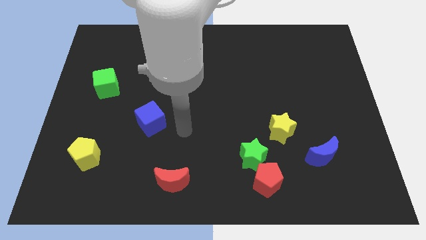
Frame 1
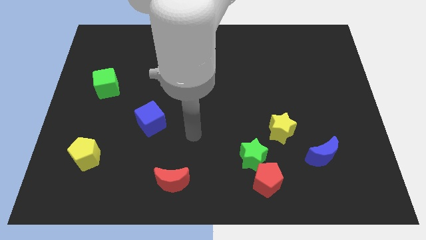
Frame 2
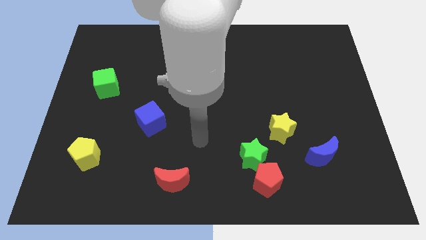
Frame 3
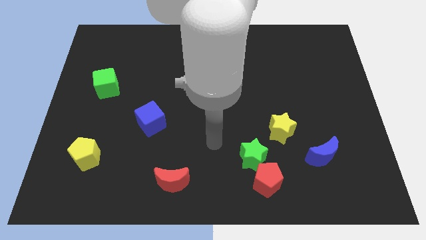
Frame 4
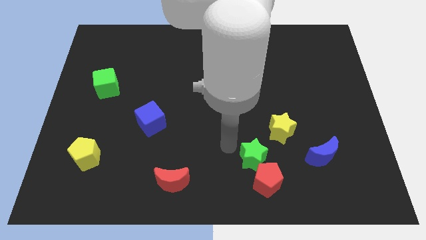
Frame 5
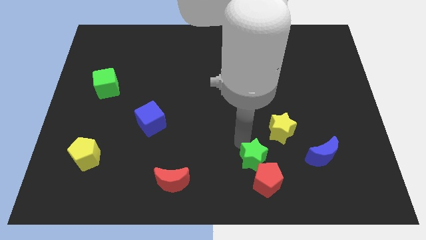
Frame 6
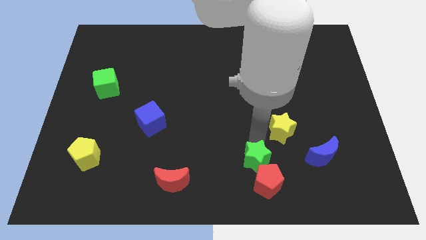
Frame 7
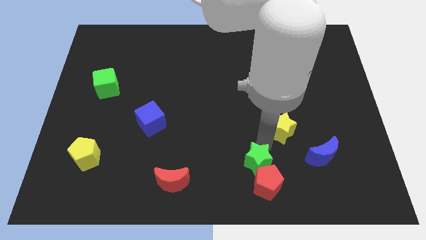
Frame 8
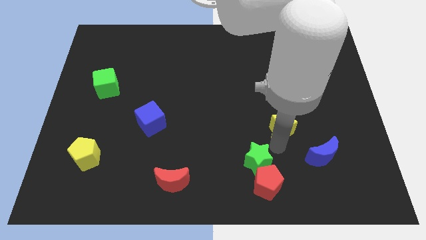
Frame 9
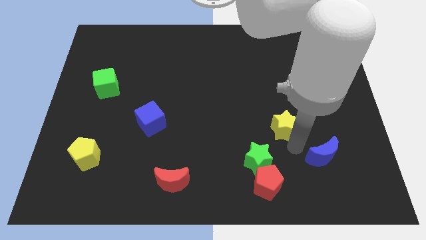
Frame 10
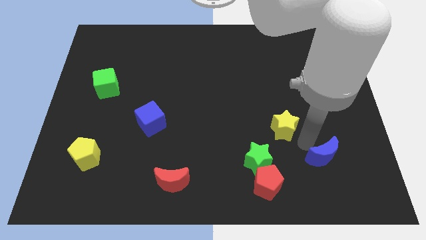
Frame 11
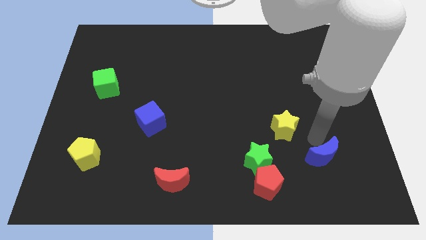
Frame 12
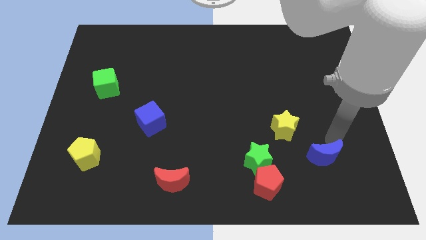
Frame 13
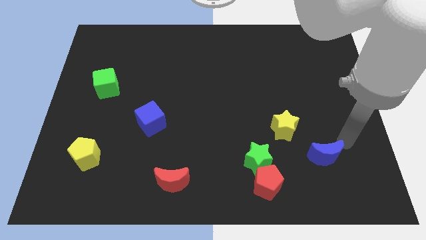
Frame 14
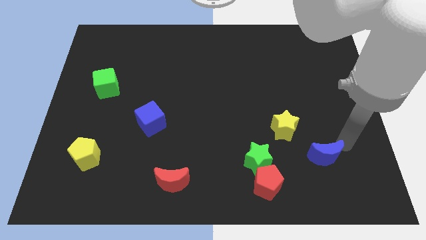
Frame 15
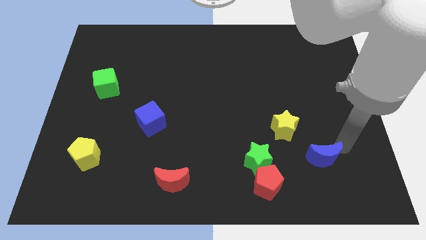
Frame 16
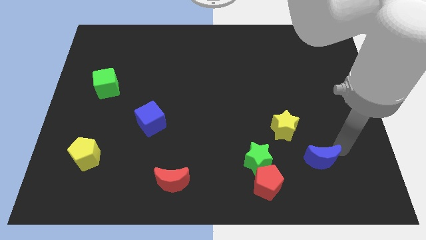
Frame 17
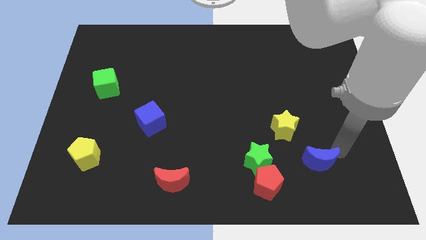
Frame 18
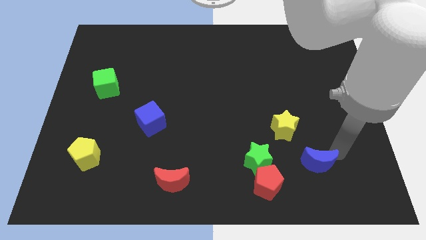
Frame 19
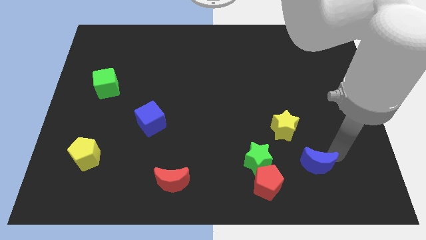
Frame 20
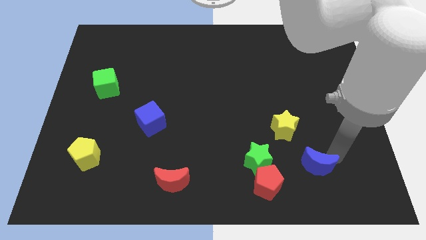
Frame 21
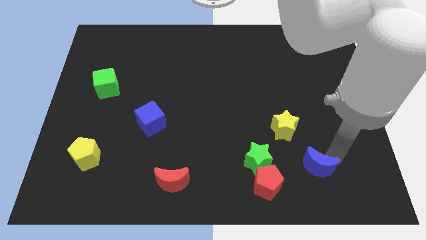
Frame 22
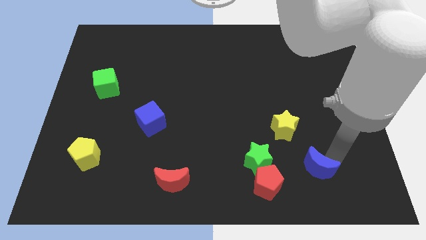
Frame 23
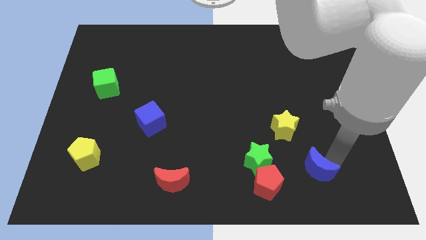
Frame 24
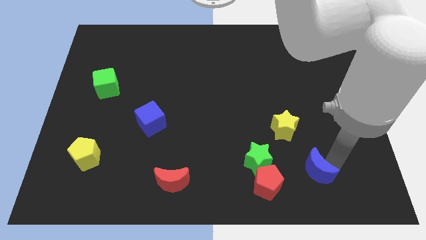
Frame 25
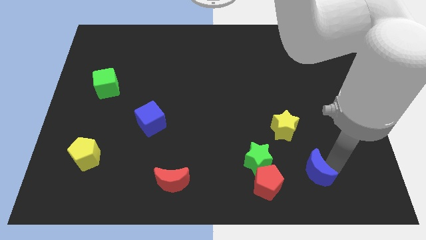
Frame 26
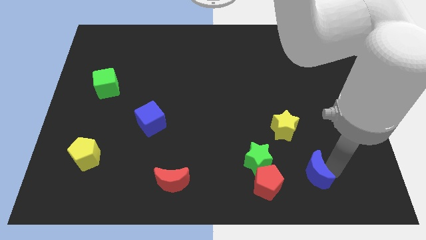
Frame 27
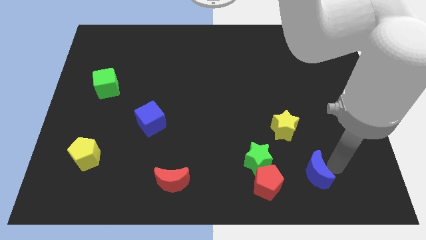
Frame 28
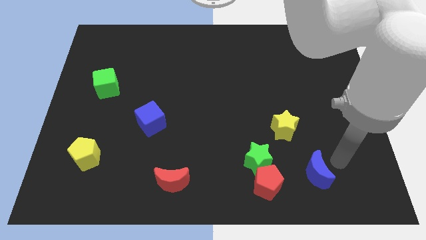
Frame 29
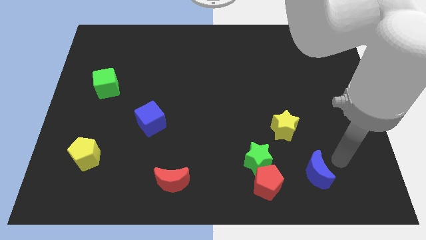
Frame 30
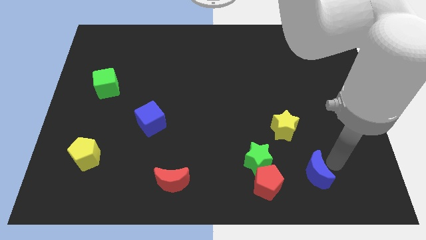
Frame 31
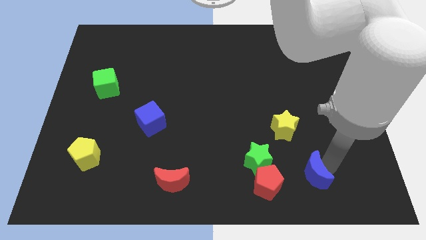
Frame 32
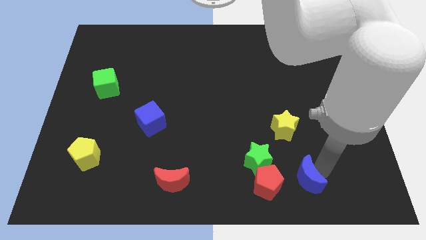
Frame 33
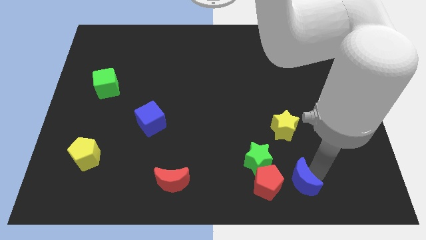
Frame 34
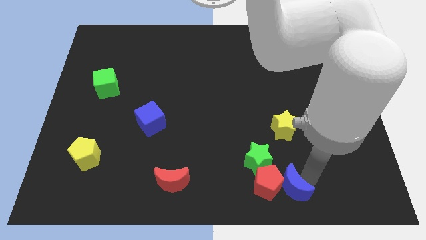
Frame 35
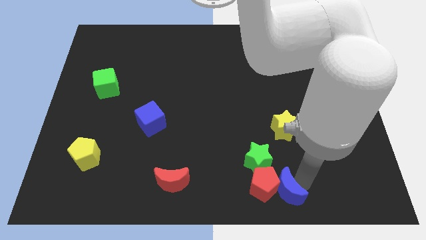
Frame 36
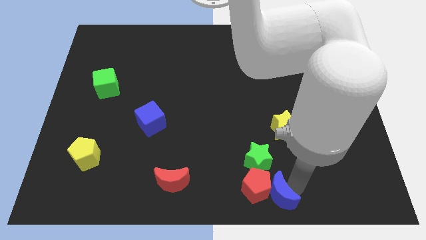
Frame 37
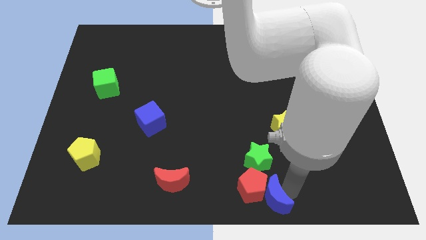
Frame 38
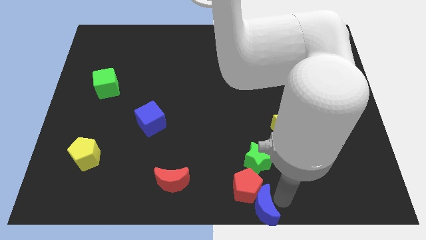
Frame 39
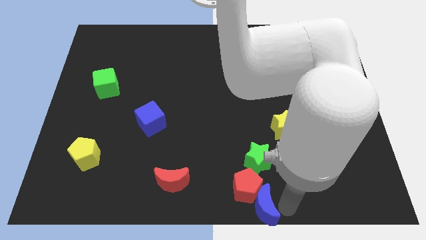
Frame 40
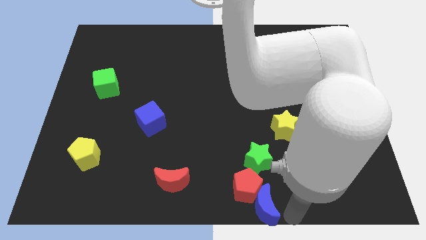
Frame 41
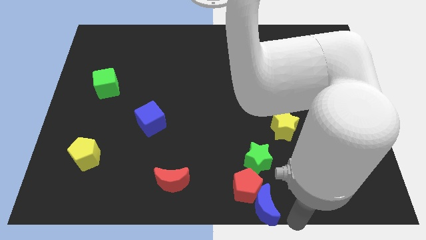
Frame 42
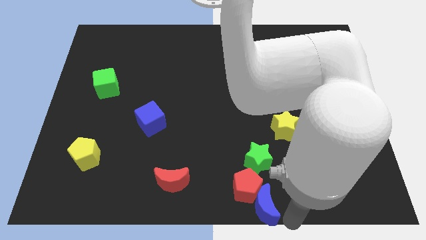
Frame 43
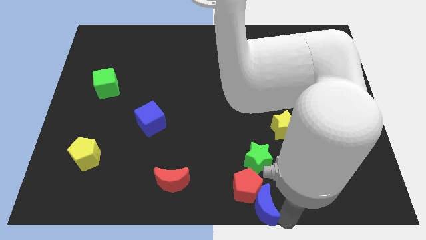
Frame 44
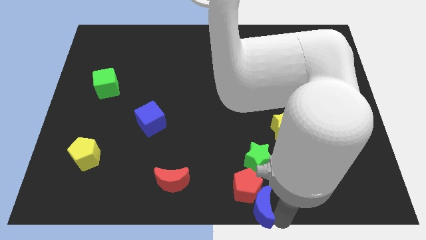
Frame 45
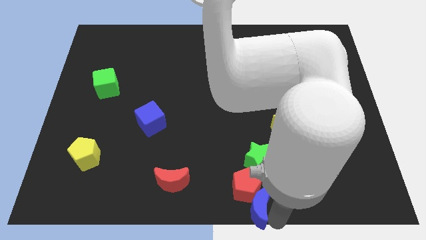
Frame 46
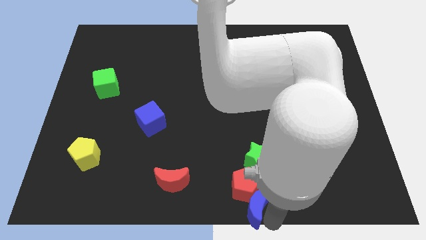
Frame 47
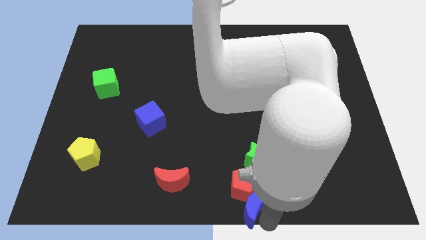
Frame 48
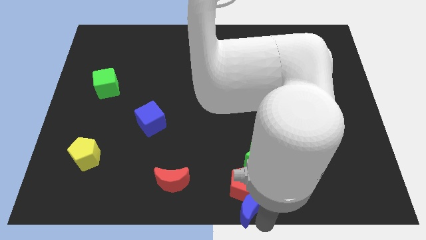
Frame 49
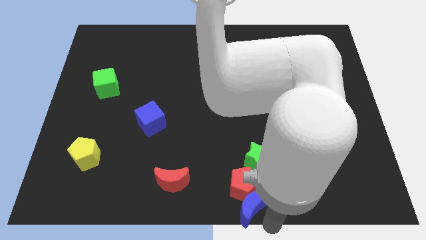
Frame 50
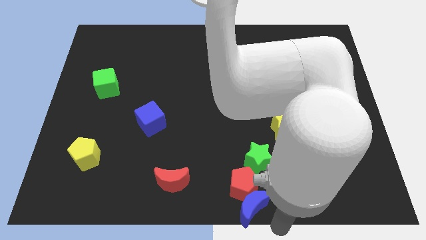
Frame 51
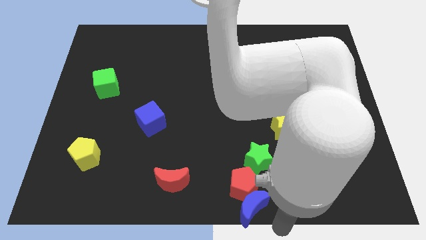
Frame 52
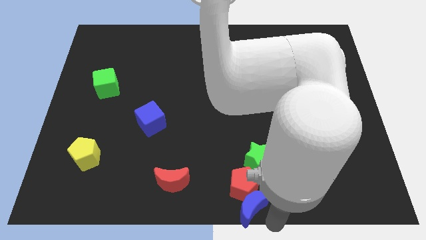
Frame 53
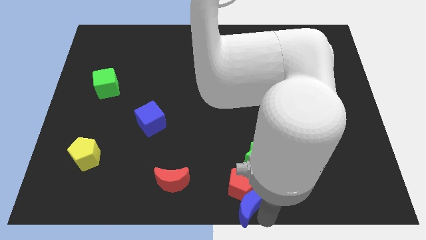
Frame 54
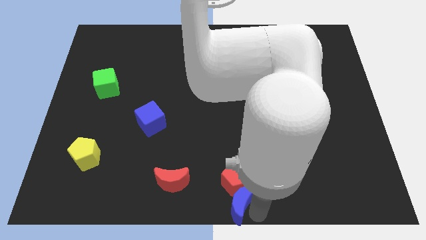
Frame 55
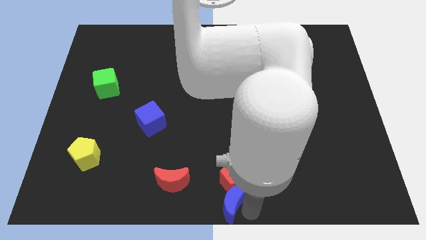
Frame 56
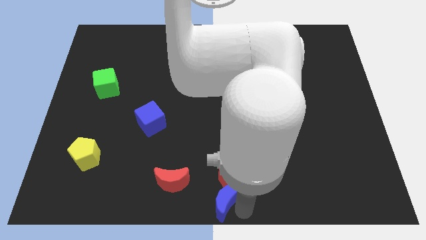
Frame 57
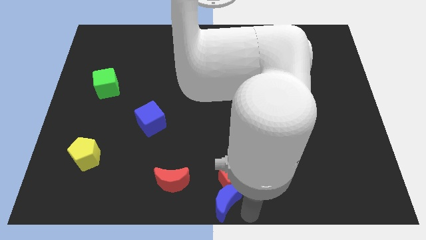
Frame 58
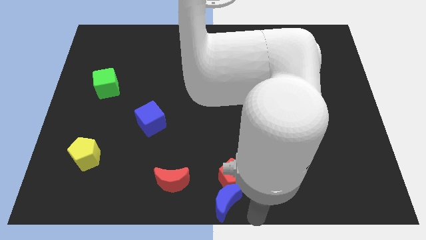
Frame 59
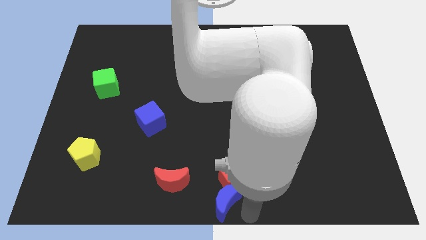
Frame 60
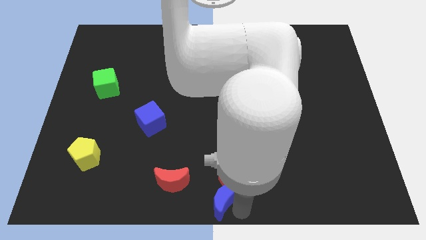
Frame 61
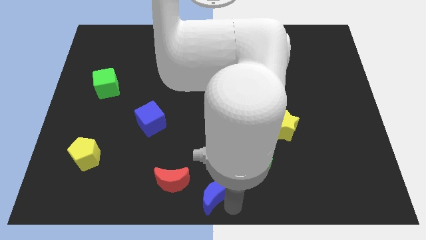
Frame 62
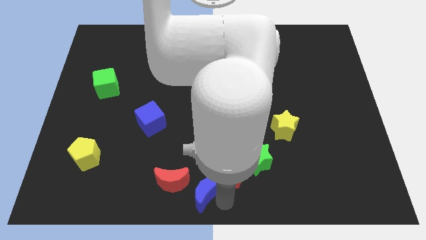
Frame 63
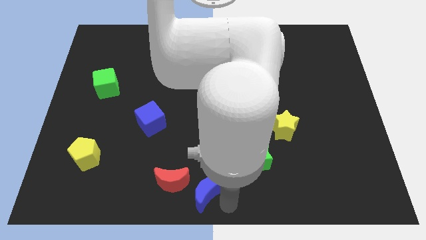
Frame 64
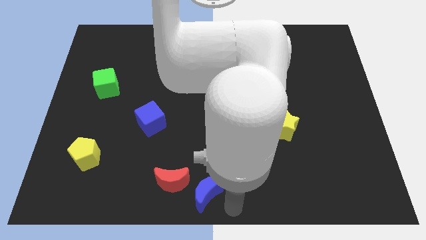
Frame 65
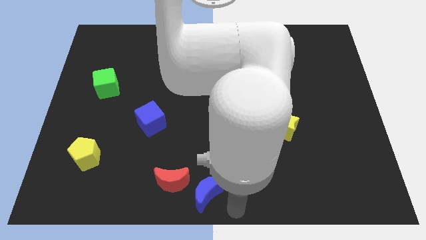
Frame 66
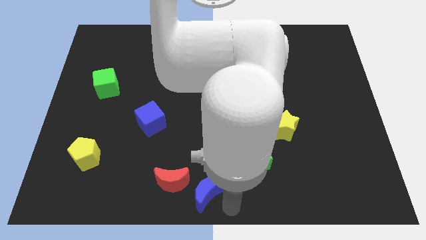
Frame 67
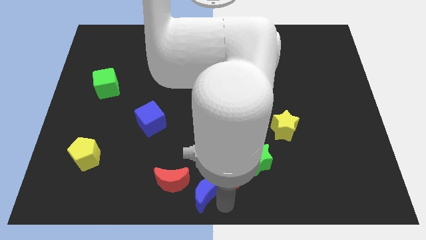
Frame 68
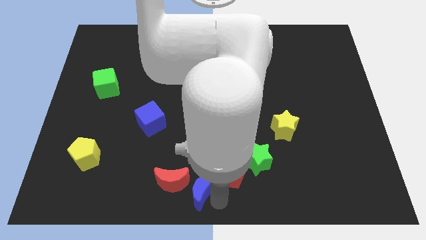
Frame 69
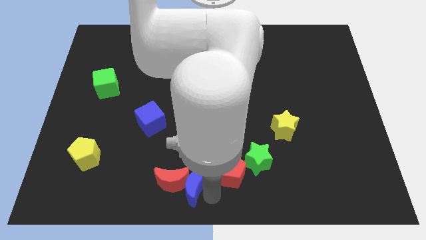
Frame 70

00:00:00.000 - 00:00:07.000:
move the blue moon to the red moon

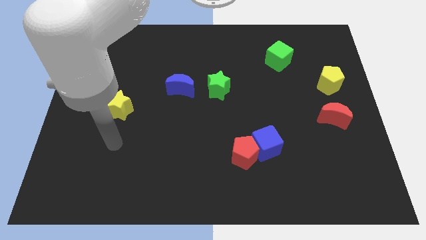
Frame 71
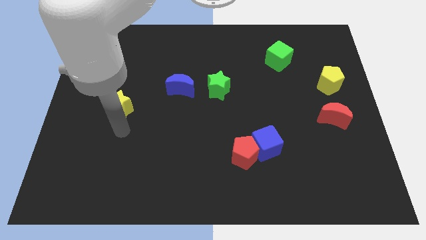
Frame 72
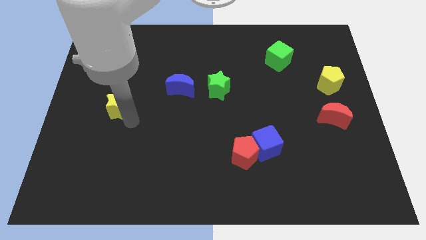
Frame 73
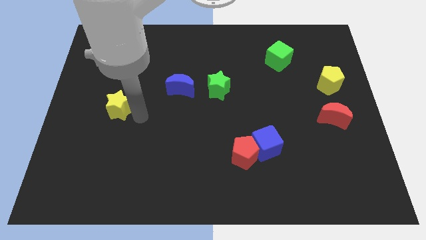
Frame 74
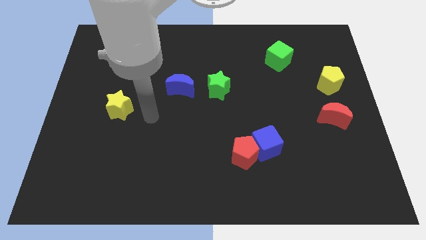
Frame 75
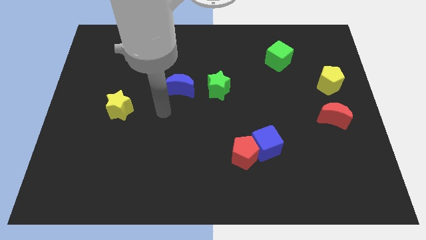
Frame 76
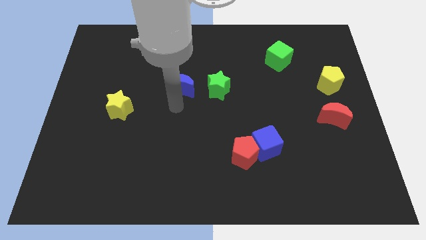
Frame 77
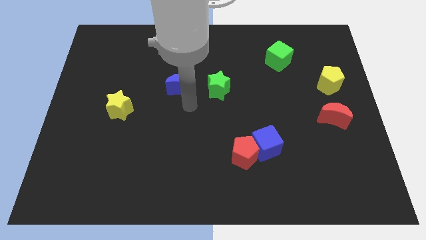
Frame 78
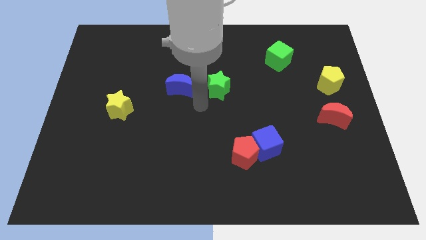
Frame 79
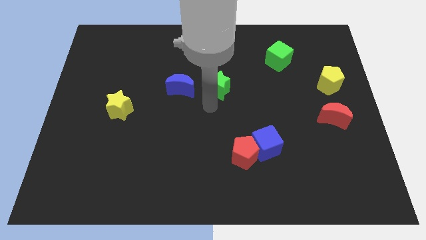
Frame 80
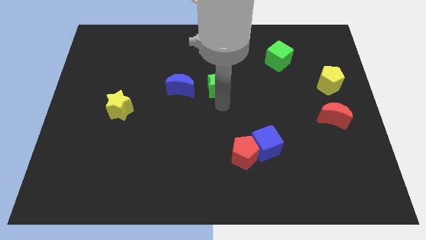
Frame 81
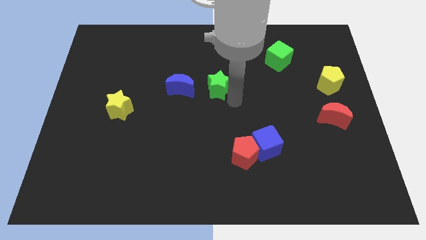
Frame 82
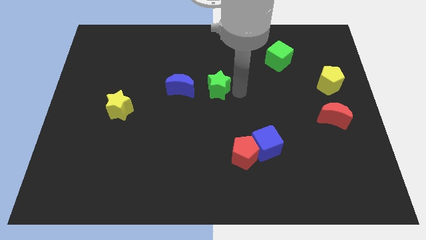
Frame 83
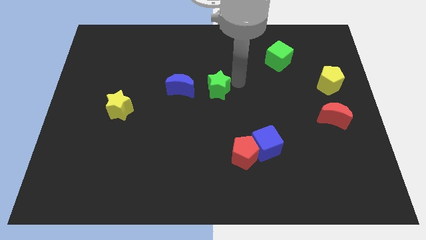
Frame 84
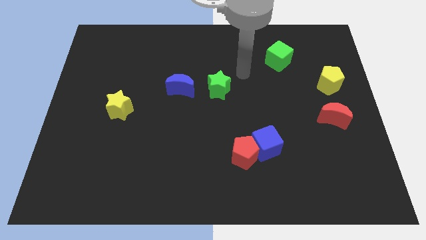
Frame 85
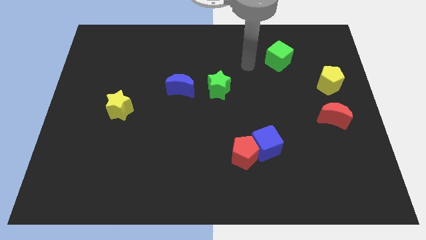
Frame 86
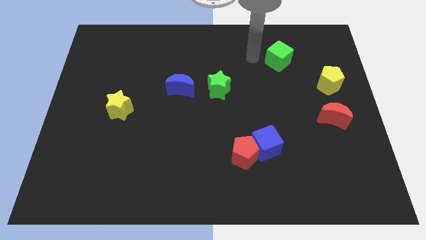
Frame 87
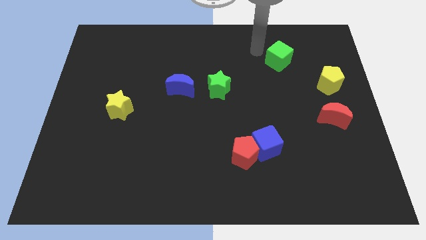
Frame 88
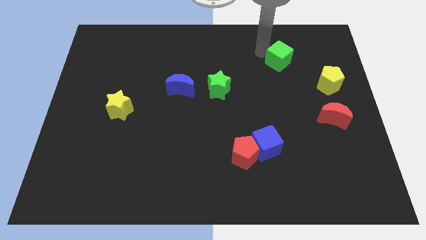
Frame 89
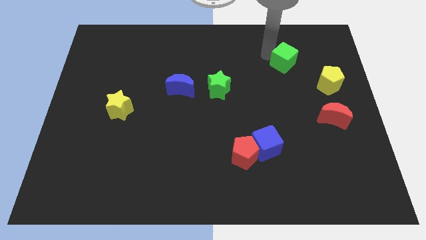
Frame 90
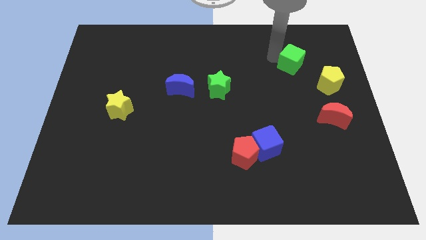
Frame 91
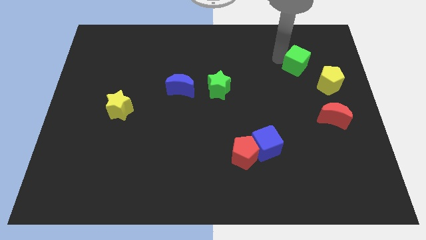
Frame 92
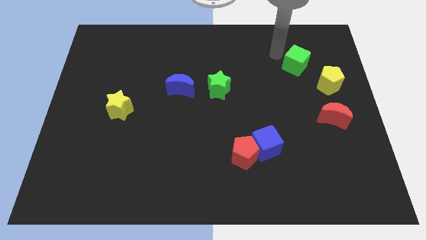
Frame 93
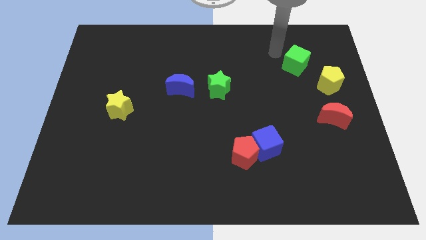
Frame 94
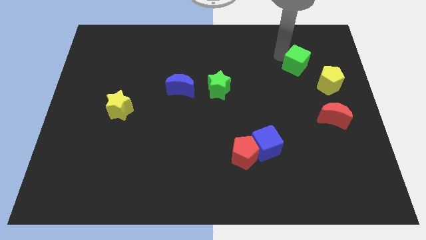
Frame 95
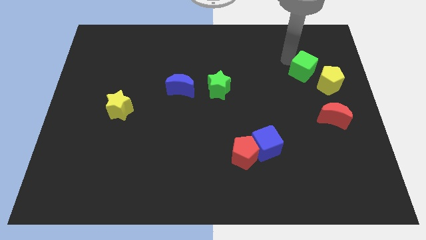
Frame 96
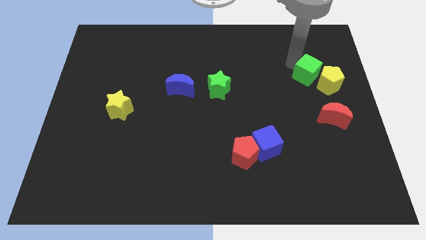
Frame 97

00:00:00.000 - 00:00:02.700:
slide the green cube next to the yellow pentagon
